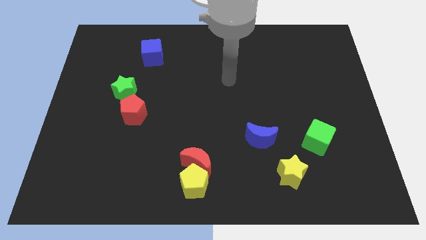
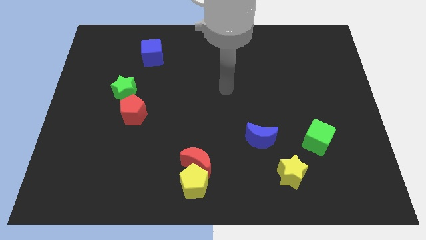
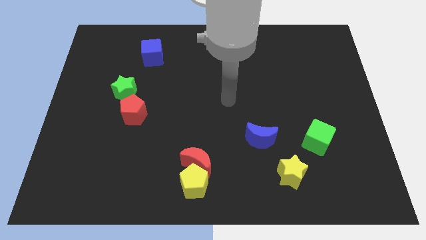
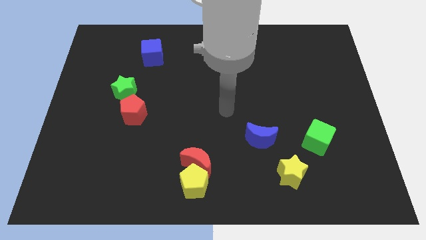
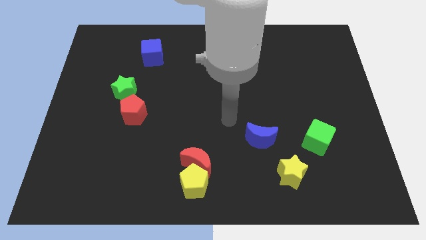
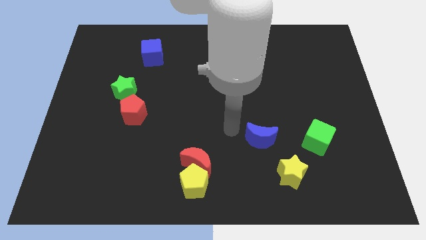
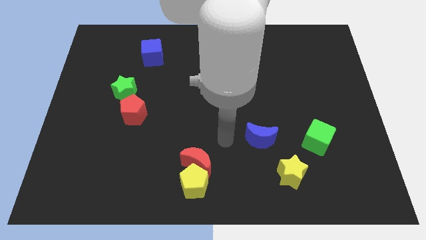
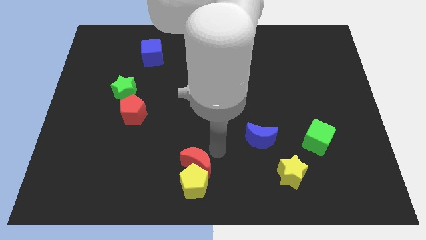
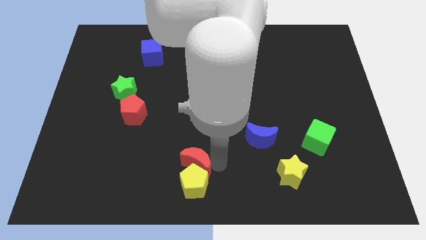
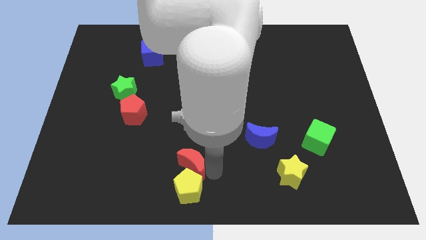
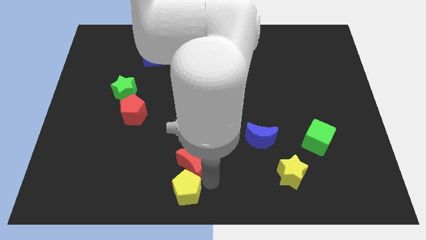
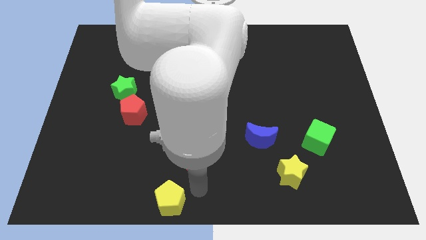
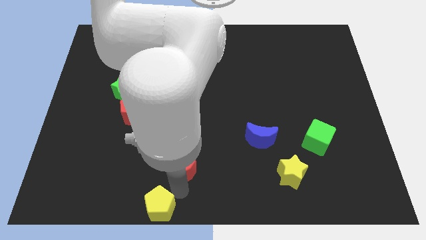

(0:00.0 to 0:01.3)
separate the red moon from the yellow pentagon

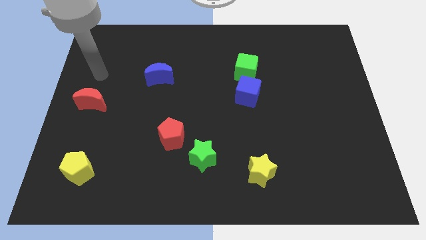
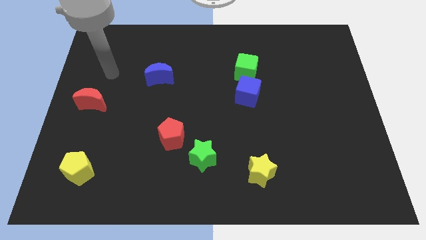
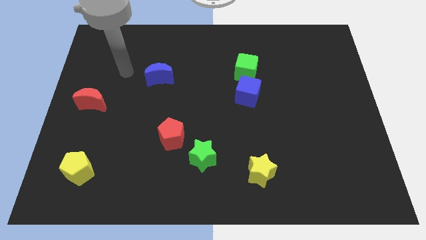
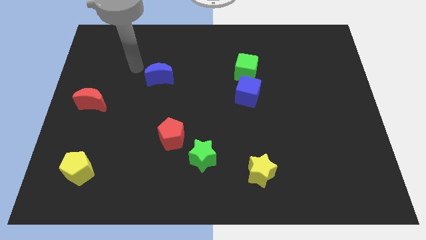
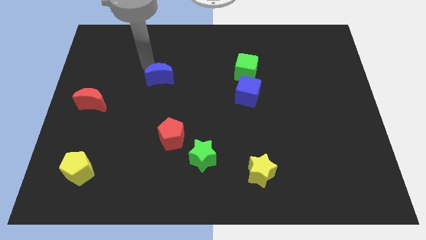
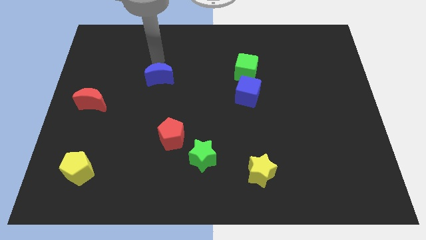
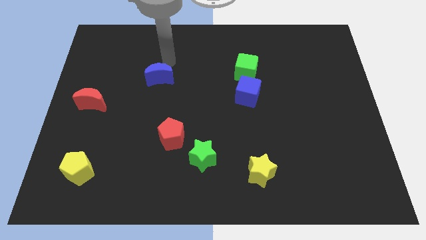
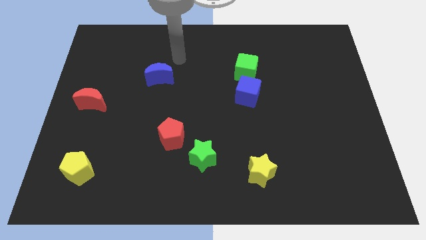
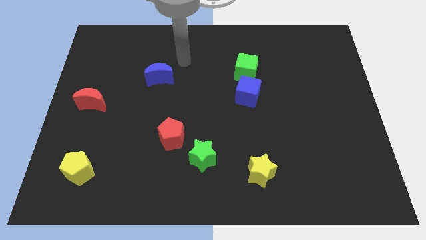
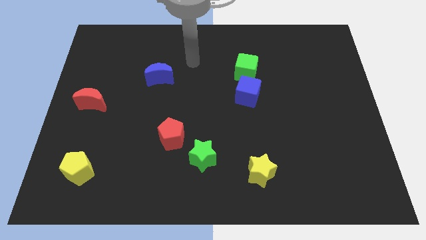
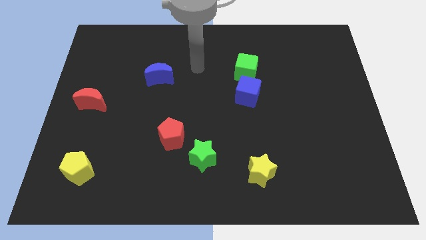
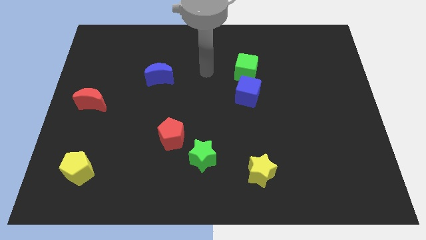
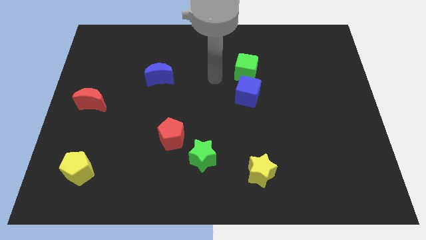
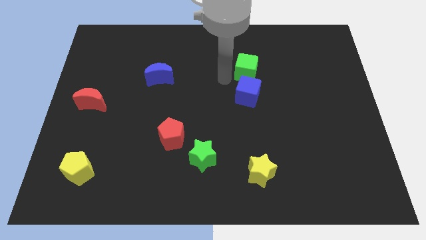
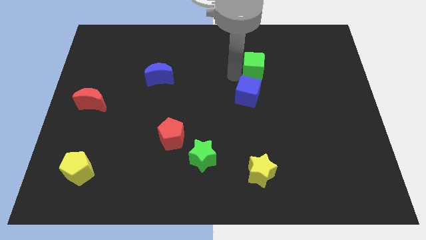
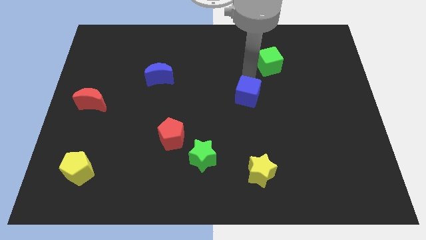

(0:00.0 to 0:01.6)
move the blue cube away from the green cube

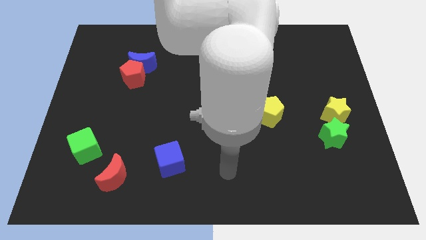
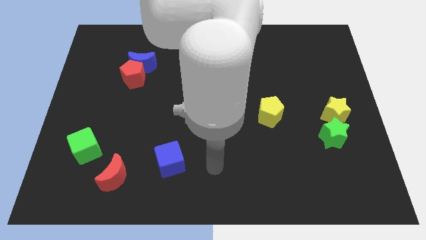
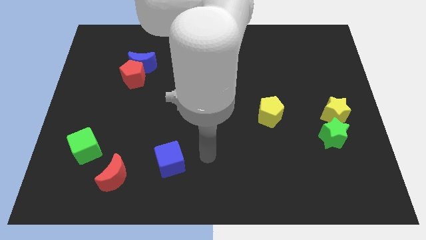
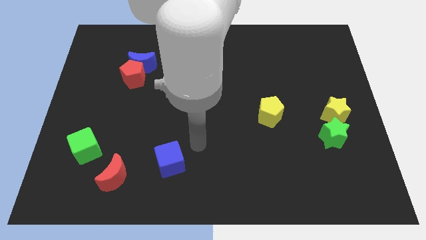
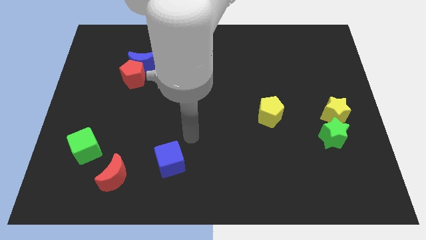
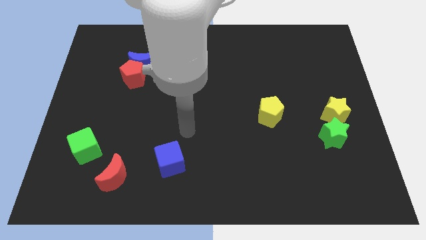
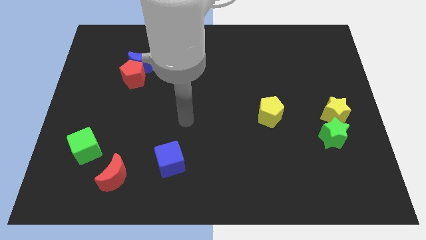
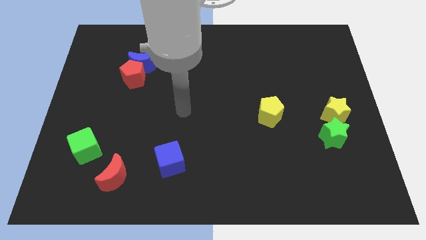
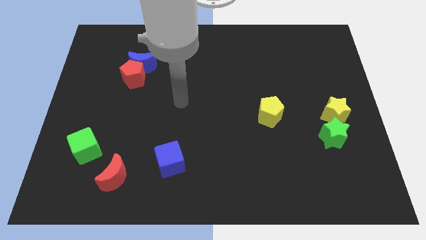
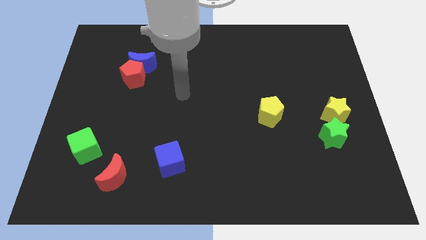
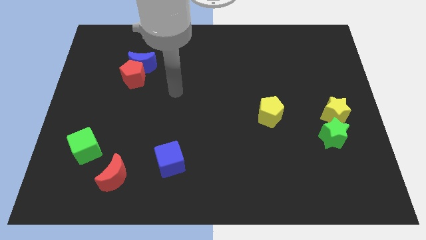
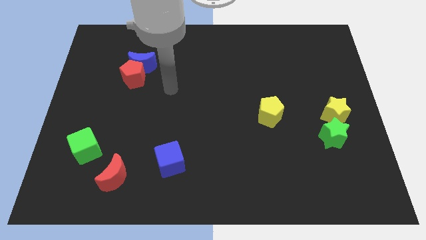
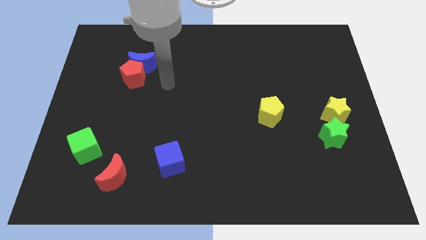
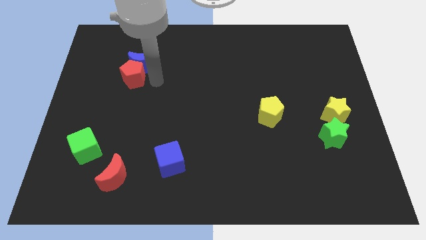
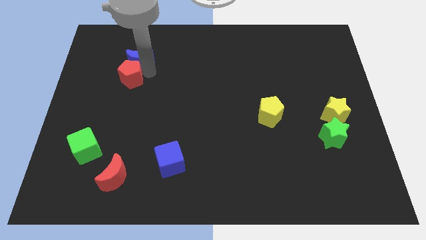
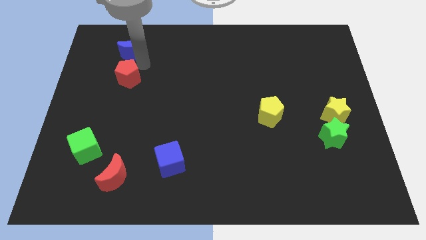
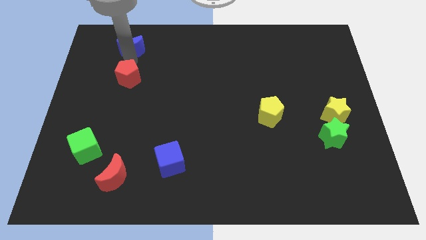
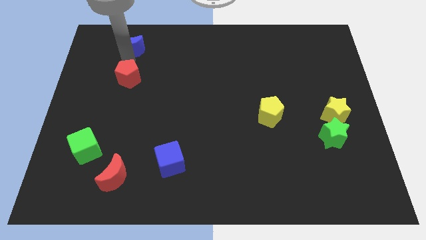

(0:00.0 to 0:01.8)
pull the red pentagon apart from the blue moon

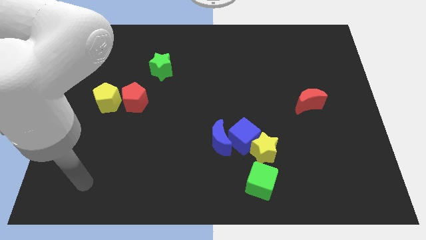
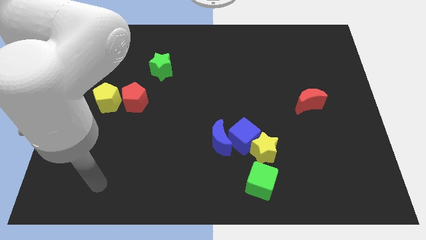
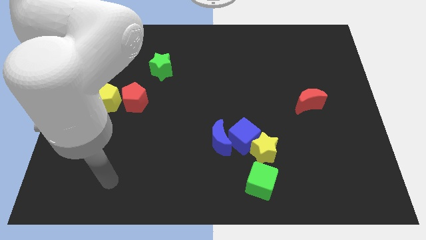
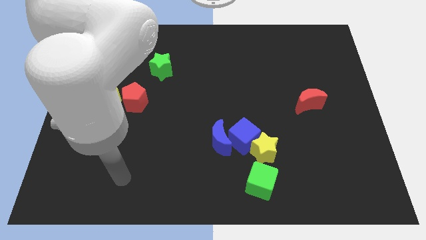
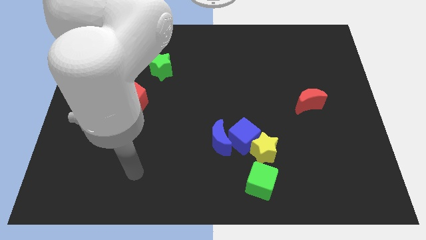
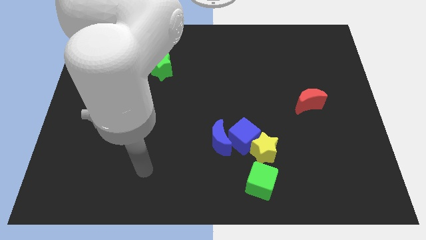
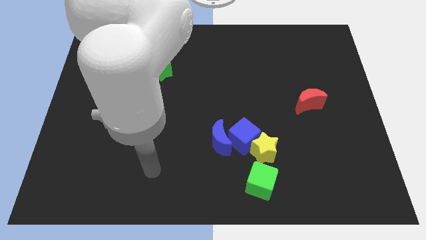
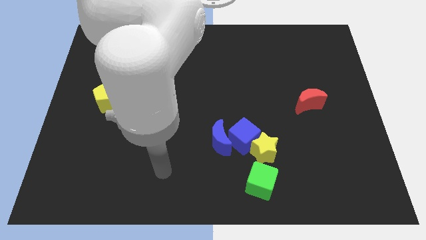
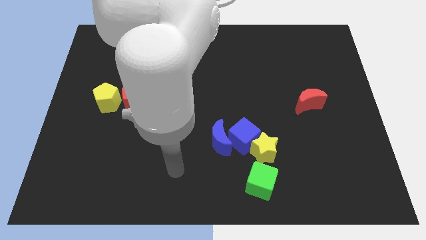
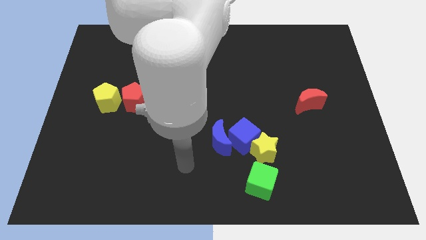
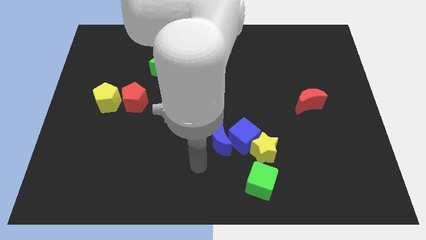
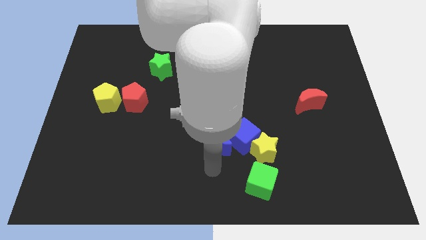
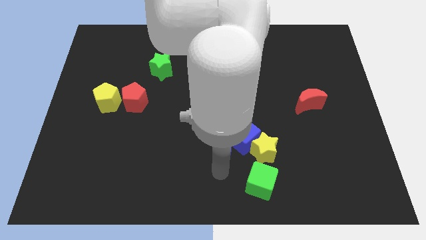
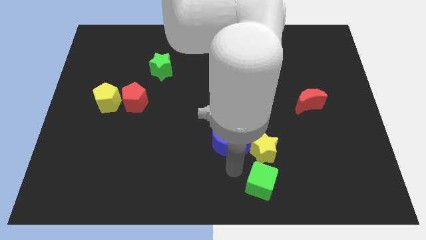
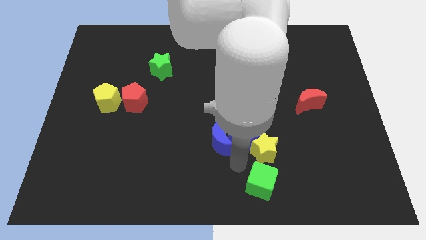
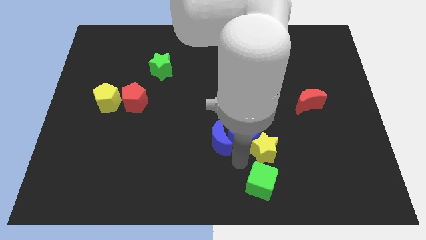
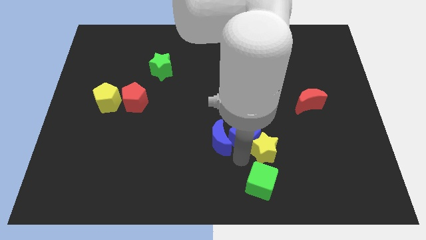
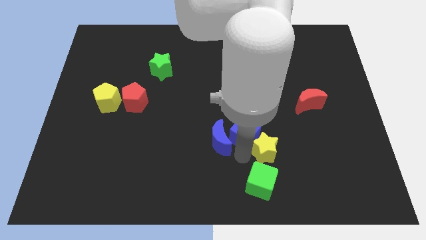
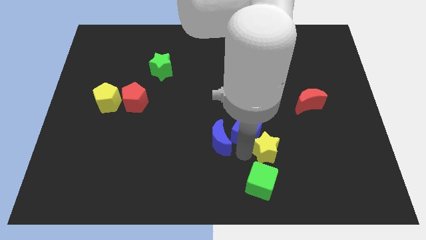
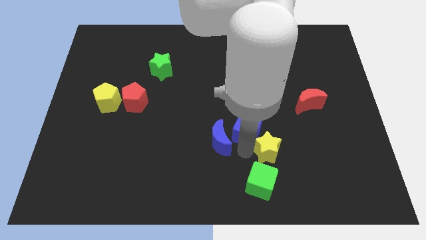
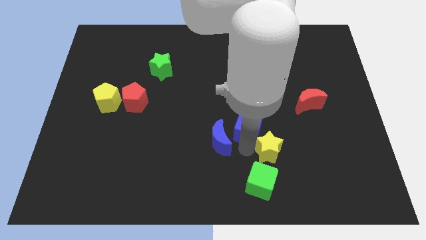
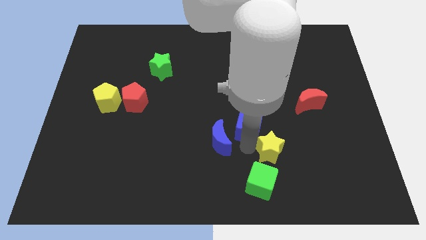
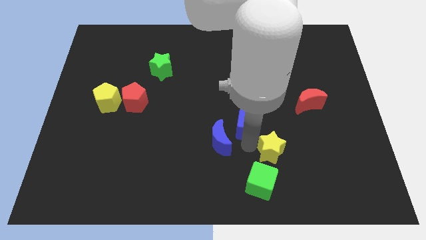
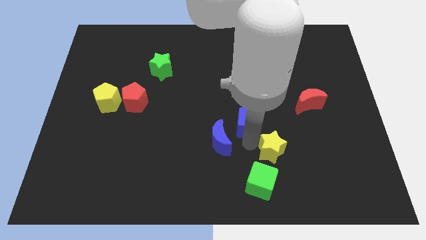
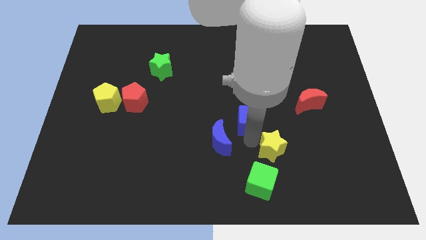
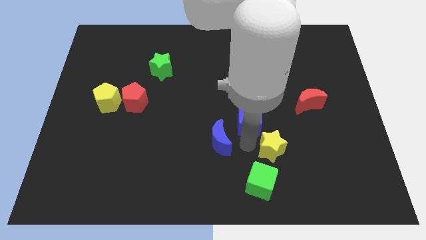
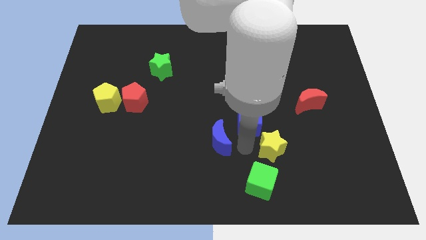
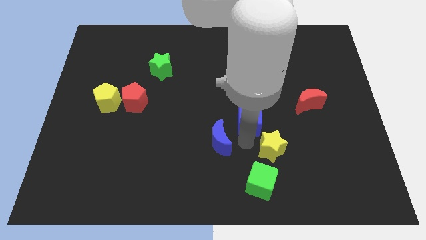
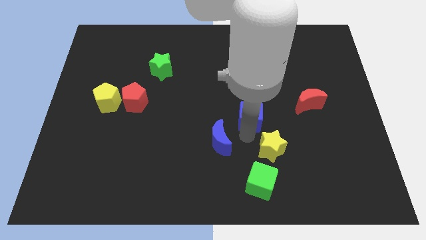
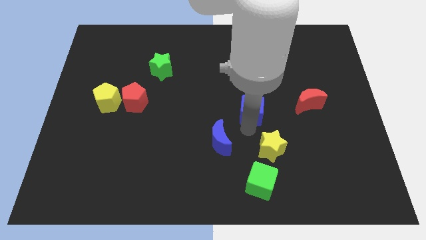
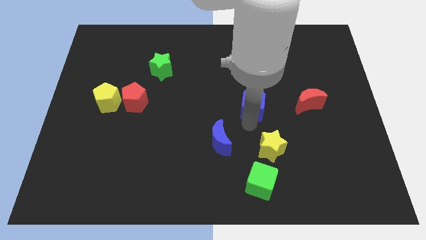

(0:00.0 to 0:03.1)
separate the blue cube from the blue moon and yellow star

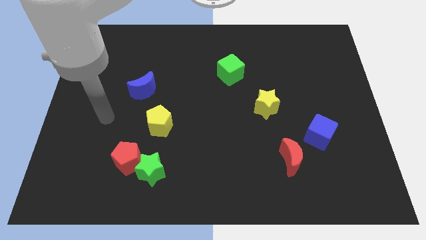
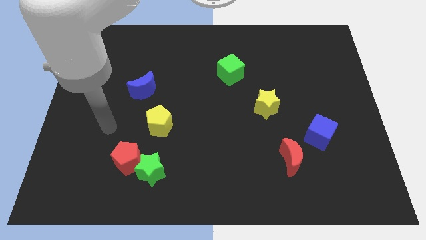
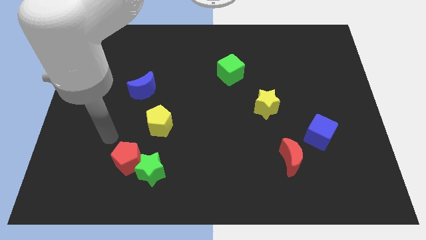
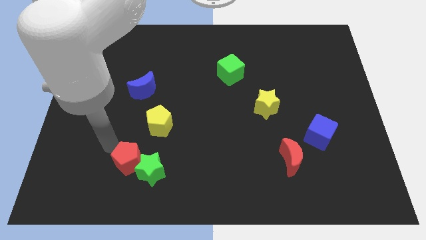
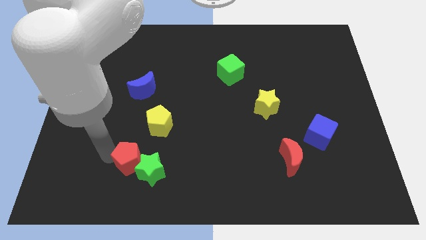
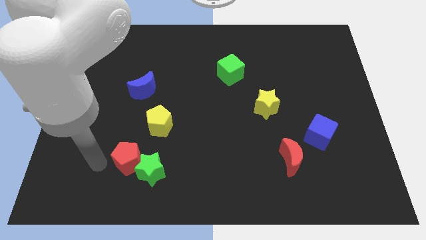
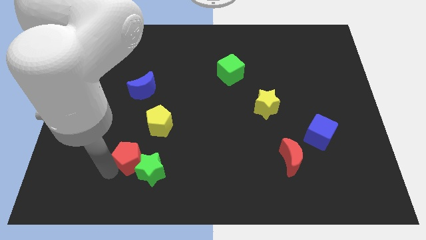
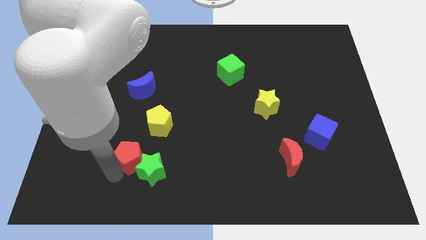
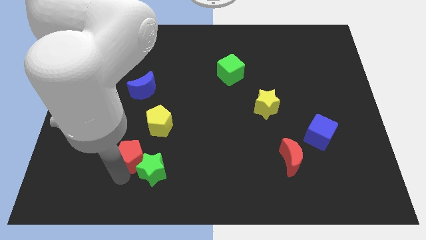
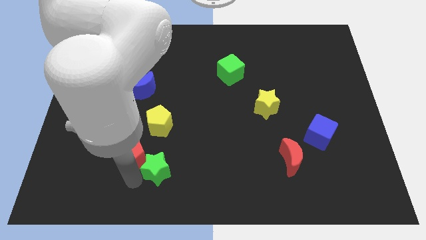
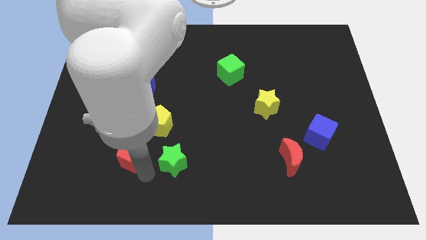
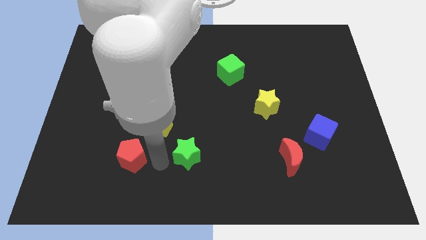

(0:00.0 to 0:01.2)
pull the red pentagon apart from the green star

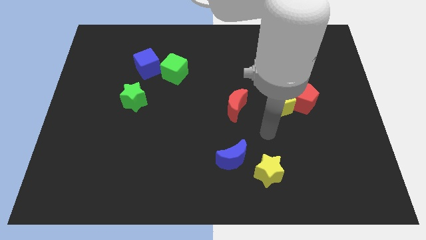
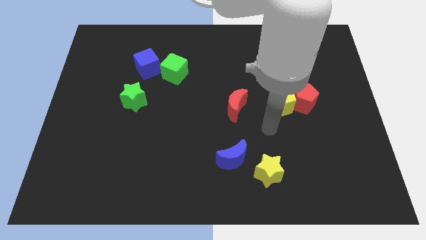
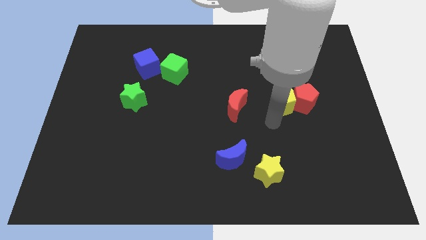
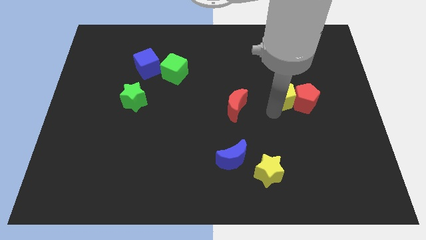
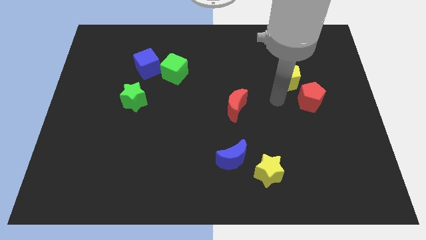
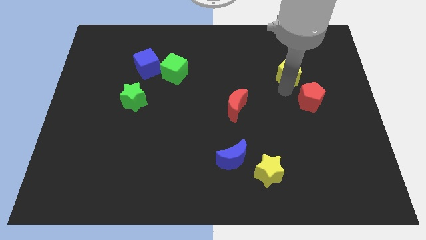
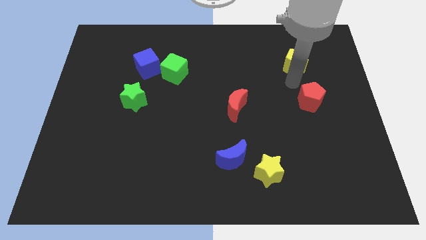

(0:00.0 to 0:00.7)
separate the red pentagon from the yellow pentagon
